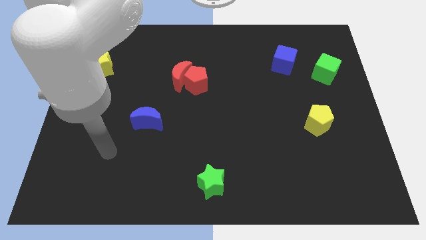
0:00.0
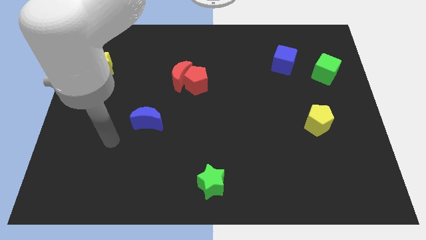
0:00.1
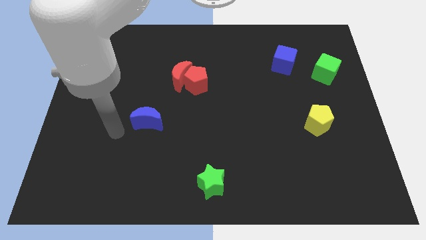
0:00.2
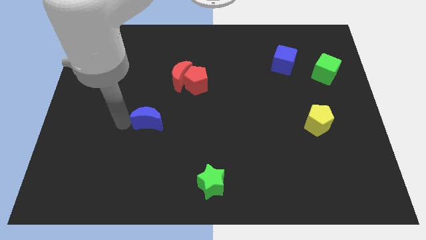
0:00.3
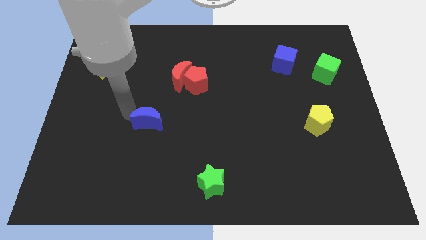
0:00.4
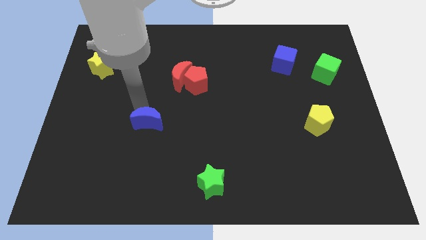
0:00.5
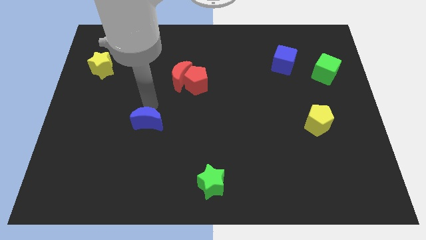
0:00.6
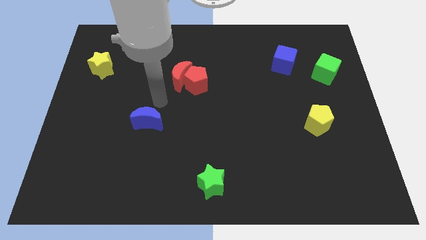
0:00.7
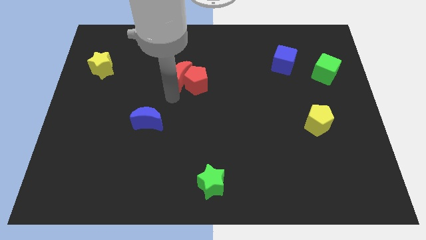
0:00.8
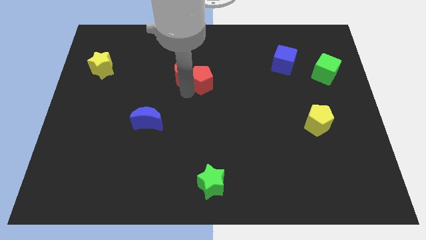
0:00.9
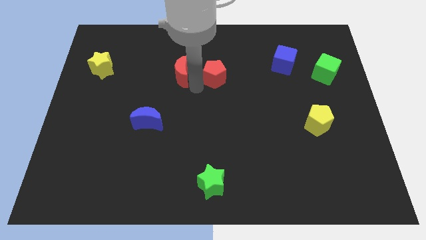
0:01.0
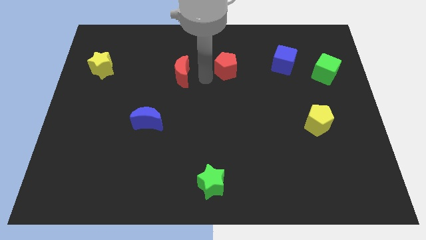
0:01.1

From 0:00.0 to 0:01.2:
move the red moon away from the red pentagon

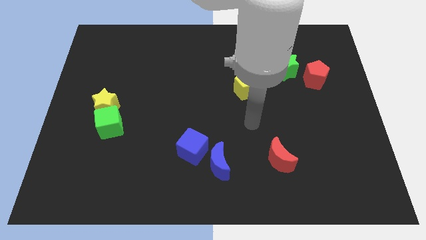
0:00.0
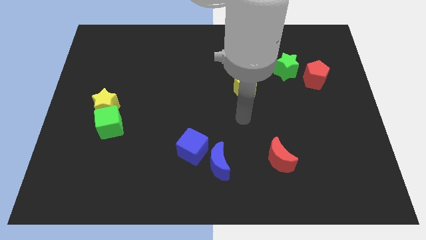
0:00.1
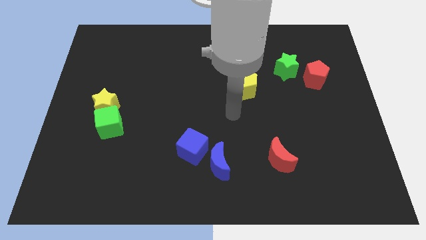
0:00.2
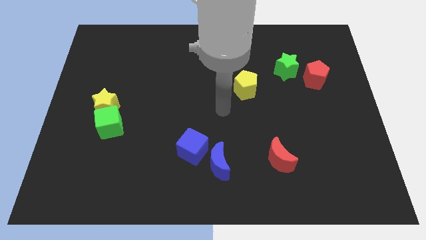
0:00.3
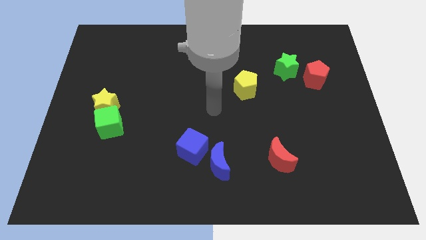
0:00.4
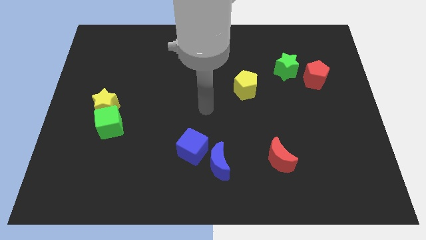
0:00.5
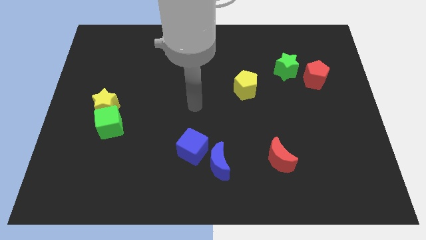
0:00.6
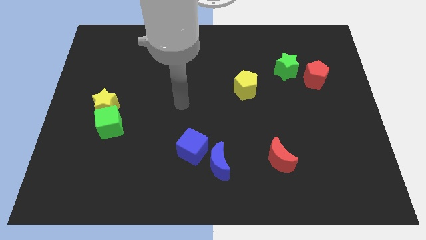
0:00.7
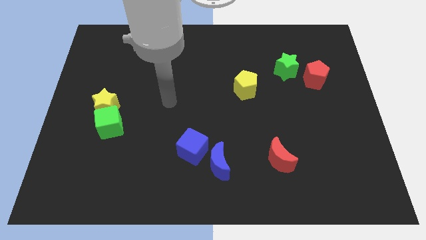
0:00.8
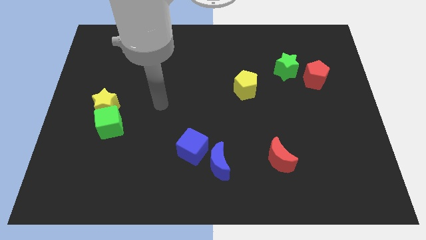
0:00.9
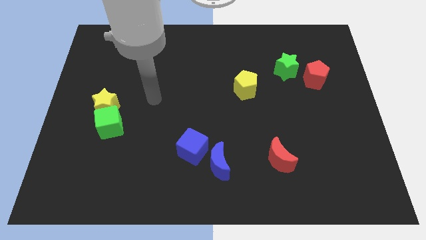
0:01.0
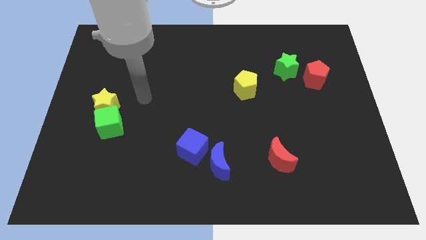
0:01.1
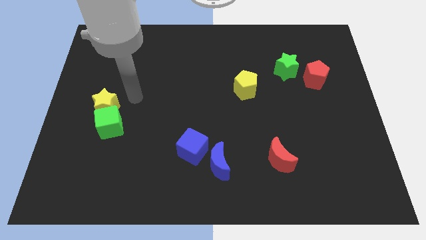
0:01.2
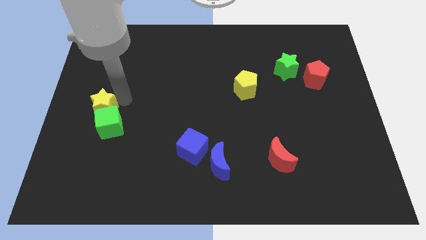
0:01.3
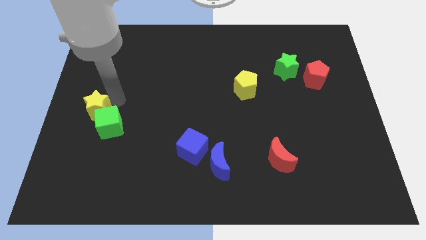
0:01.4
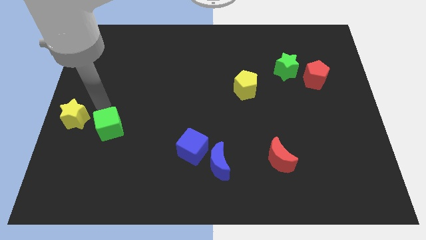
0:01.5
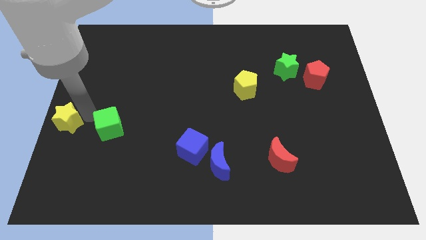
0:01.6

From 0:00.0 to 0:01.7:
pull the green cube apart from the yellow star

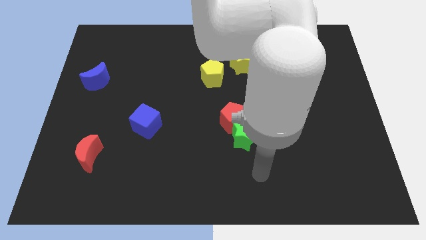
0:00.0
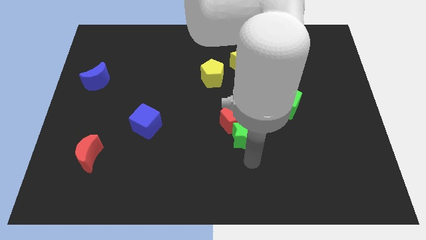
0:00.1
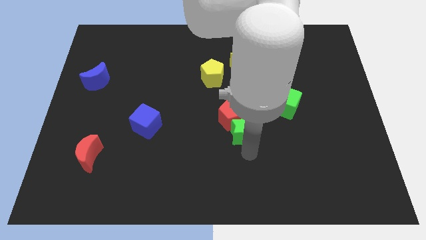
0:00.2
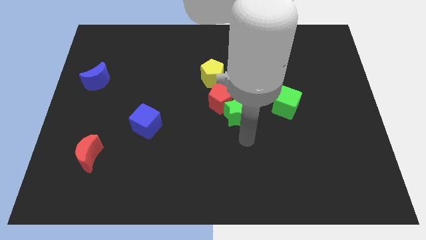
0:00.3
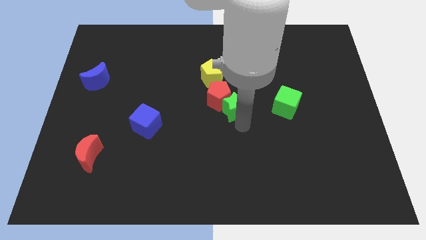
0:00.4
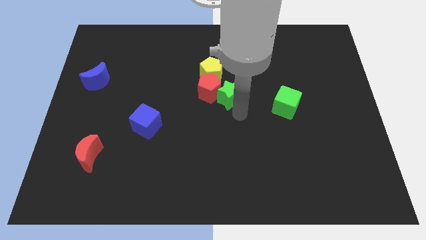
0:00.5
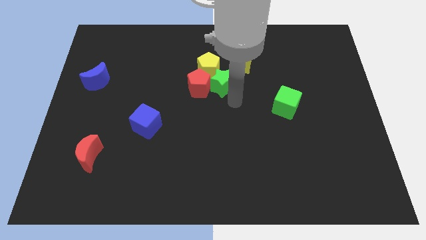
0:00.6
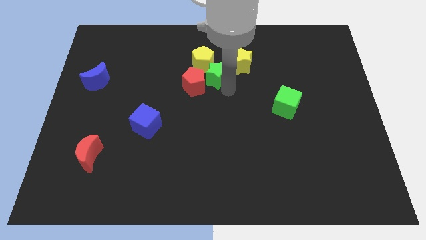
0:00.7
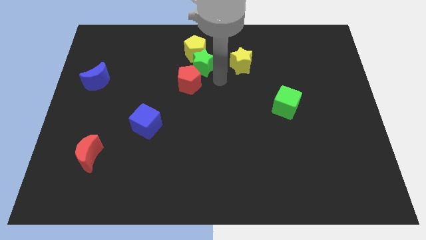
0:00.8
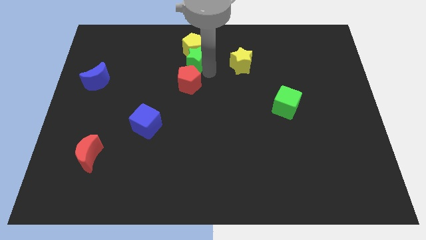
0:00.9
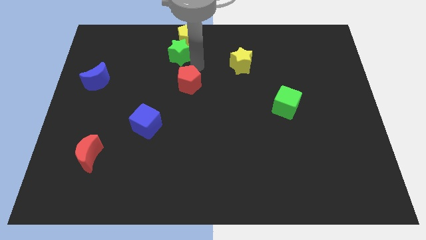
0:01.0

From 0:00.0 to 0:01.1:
separate the red pentagon from the green star

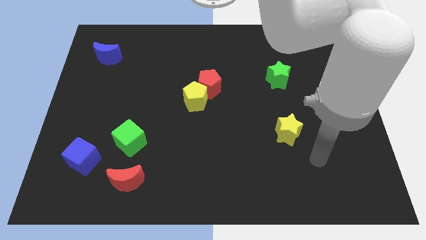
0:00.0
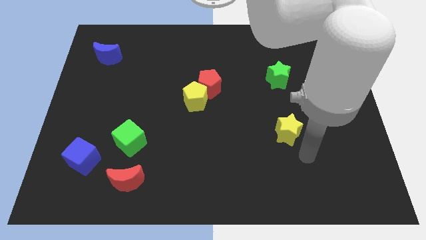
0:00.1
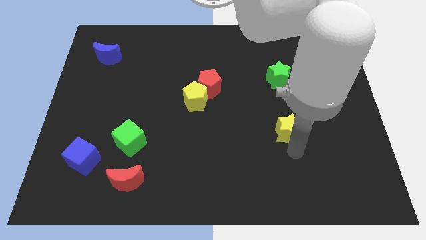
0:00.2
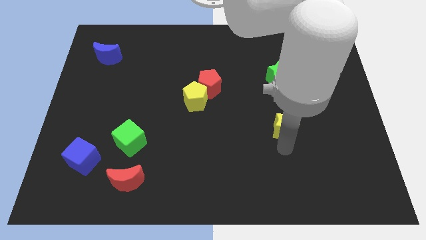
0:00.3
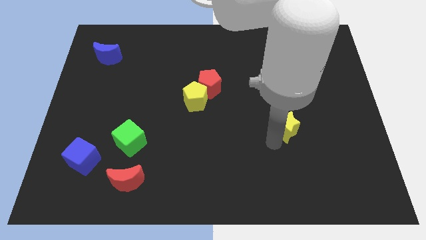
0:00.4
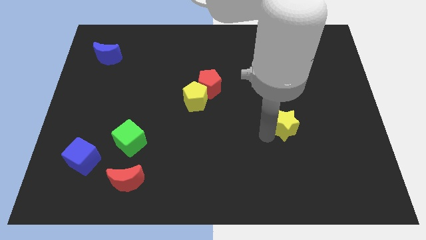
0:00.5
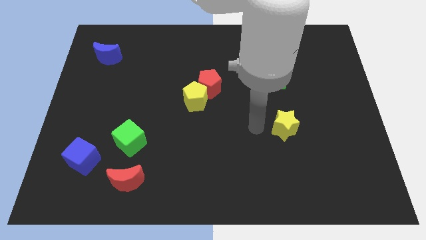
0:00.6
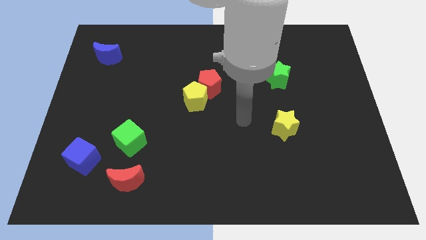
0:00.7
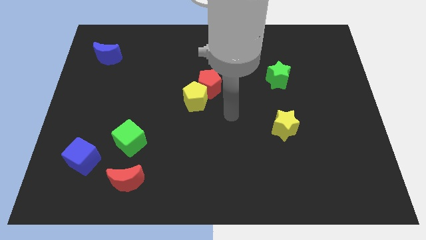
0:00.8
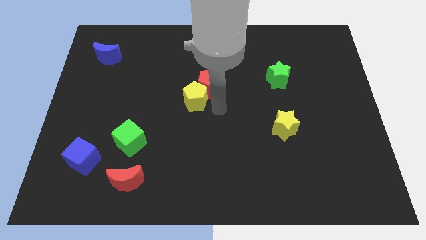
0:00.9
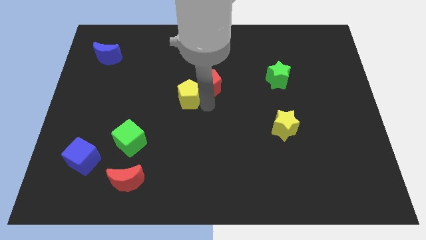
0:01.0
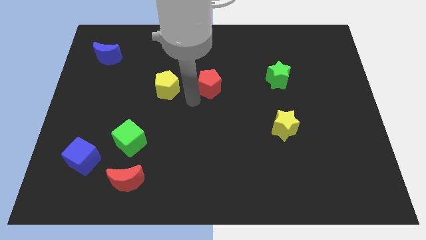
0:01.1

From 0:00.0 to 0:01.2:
separate the red pentagon from the yellow pentagon

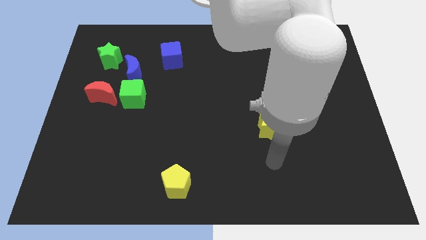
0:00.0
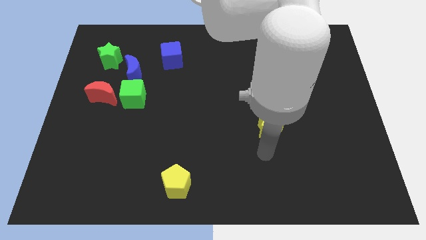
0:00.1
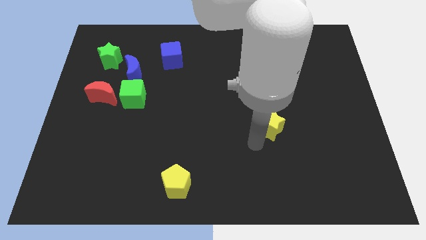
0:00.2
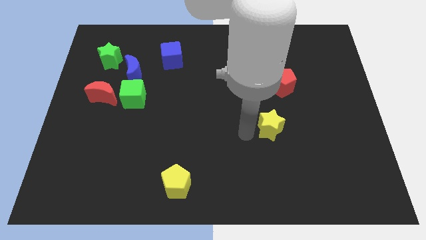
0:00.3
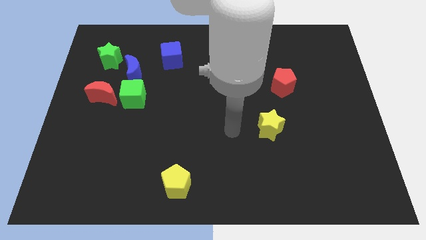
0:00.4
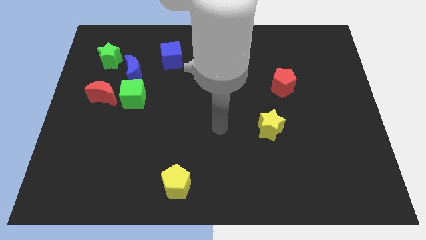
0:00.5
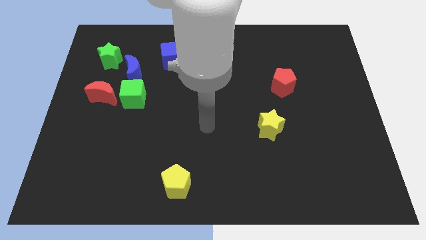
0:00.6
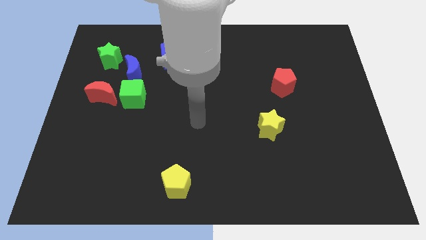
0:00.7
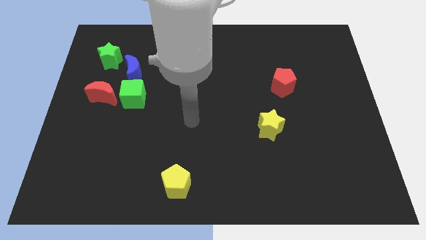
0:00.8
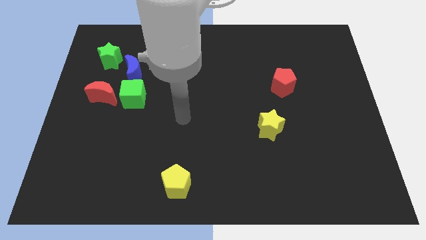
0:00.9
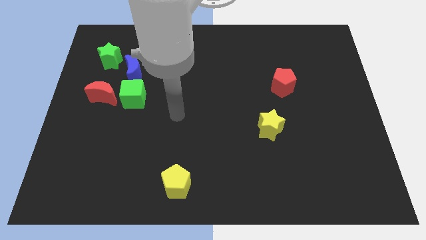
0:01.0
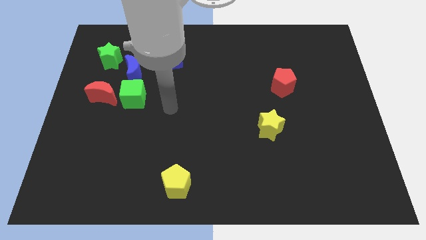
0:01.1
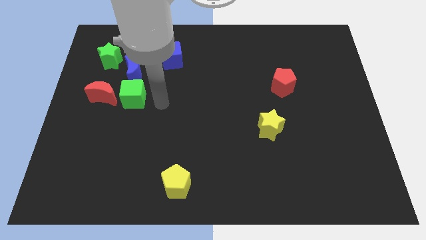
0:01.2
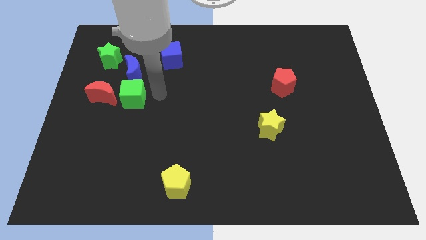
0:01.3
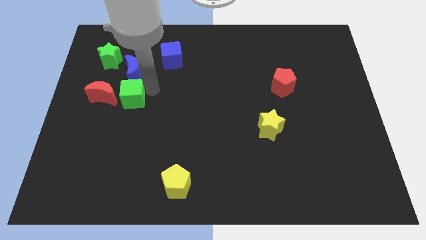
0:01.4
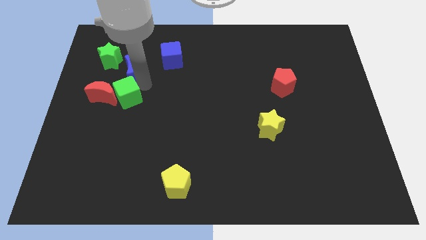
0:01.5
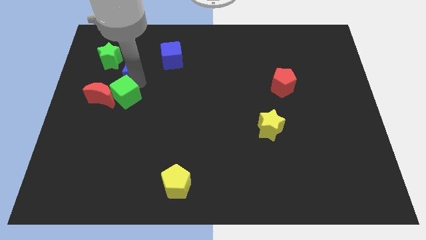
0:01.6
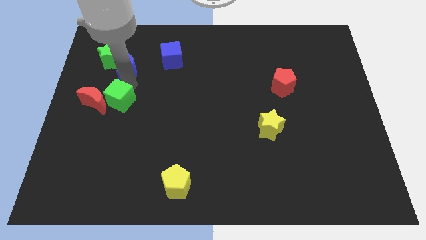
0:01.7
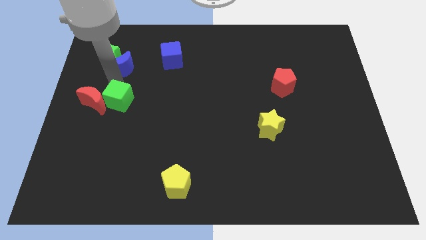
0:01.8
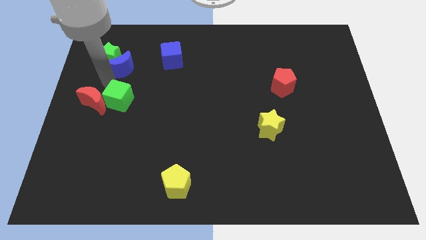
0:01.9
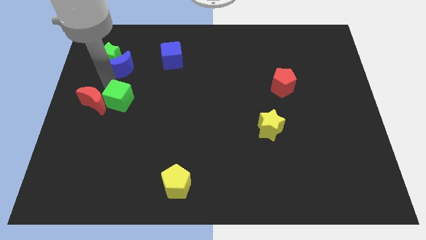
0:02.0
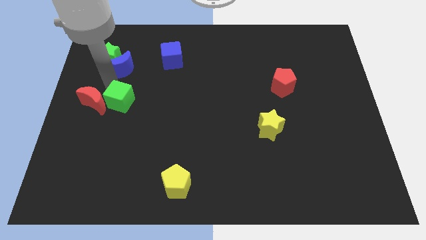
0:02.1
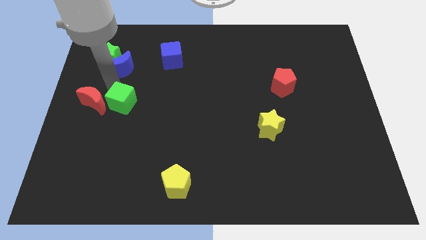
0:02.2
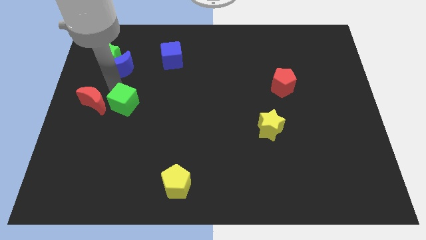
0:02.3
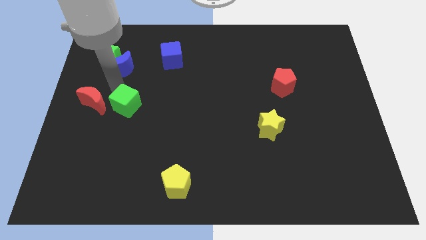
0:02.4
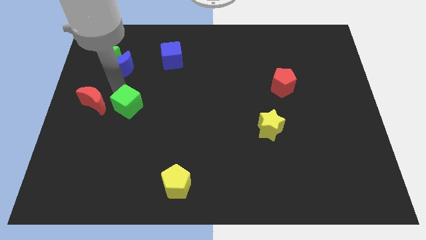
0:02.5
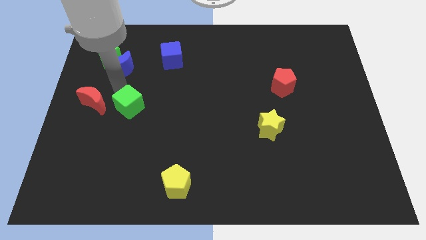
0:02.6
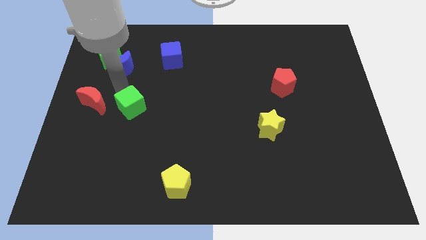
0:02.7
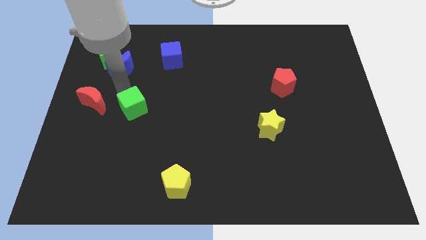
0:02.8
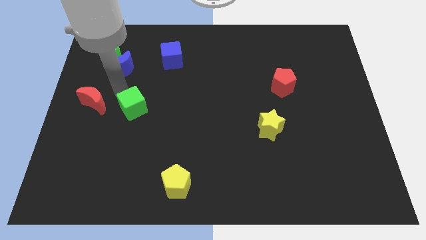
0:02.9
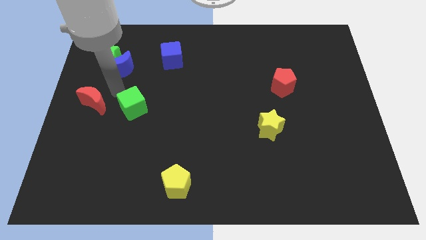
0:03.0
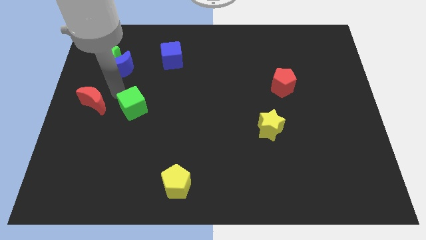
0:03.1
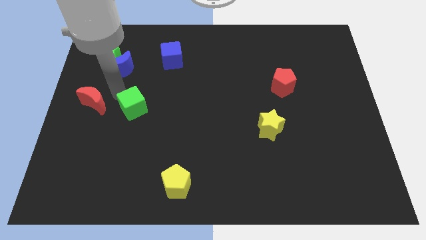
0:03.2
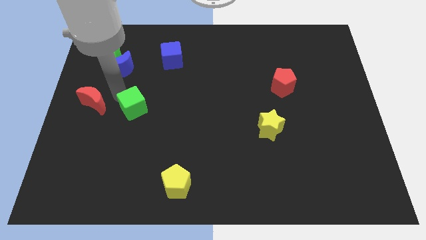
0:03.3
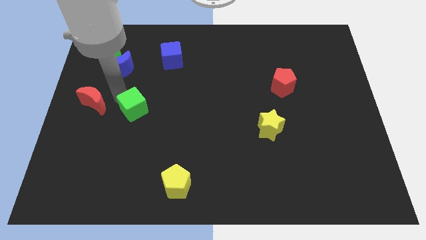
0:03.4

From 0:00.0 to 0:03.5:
separate the green cube from the red moon and blue moon

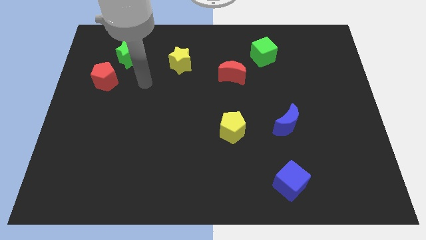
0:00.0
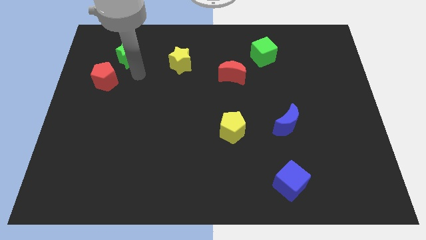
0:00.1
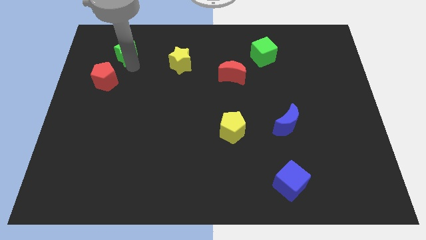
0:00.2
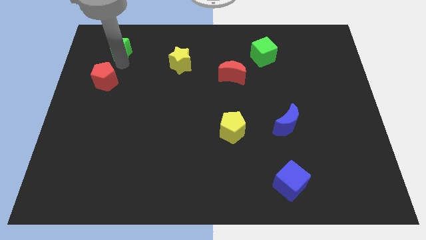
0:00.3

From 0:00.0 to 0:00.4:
move the red pentagon away from the green star

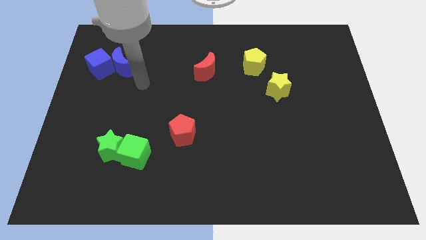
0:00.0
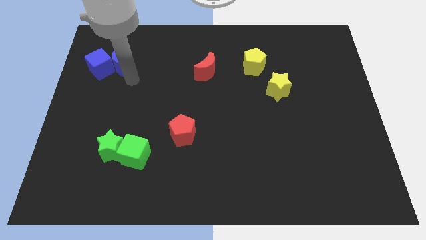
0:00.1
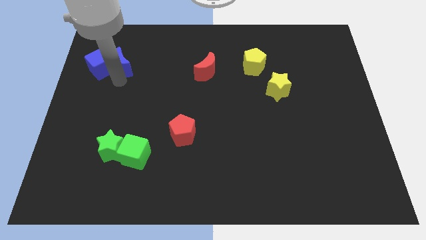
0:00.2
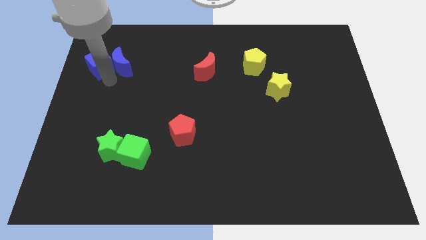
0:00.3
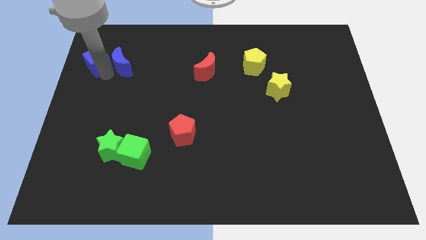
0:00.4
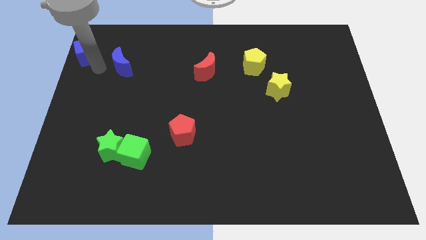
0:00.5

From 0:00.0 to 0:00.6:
separate the blue moon from the blue cube
